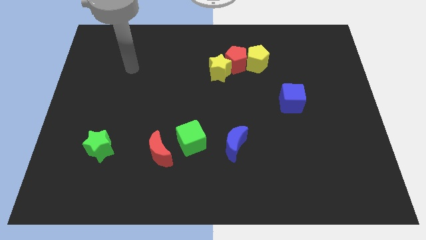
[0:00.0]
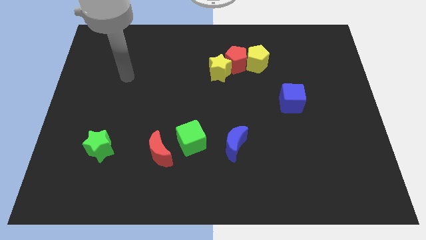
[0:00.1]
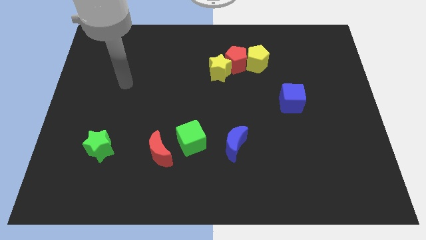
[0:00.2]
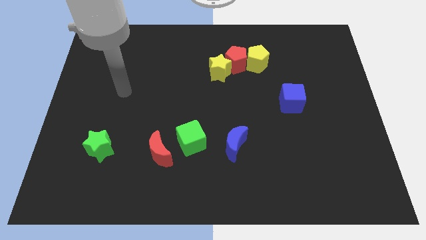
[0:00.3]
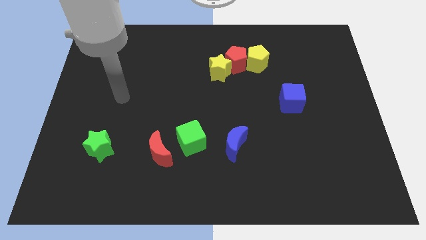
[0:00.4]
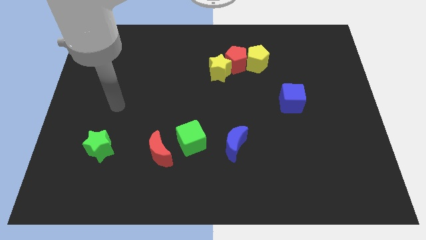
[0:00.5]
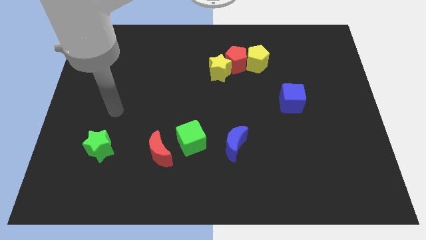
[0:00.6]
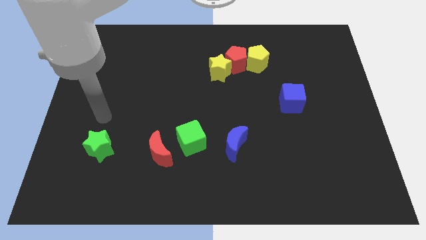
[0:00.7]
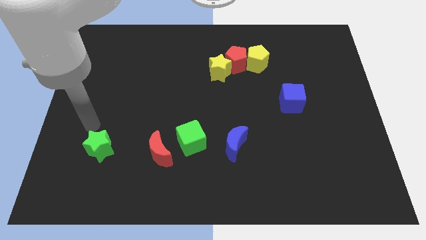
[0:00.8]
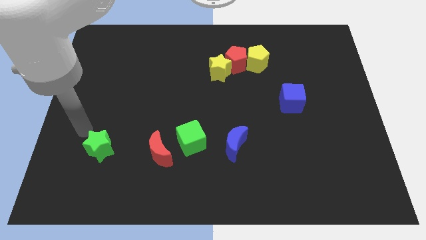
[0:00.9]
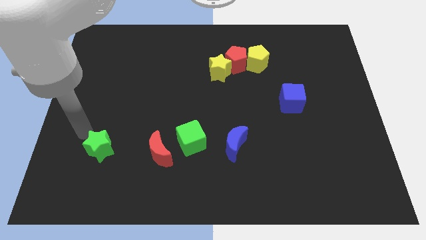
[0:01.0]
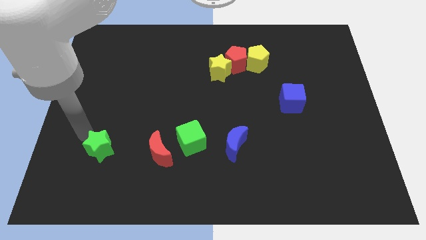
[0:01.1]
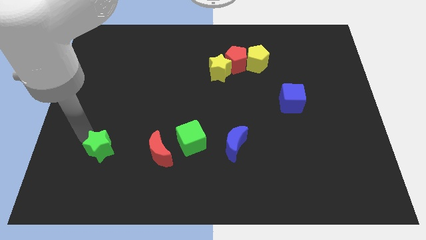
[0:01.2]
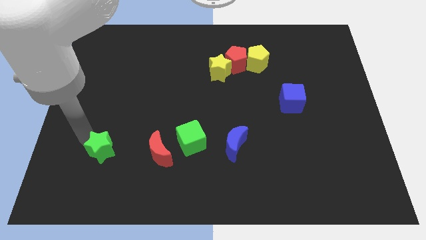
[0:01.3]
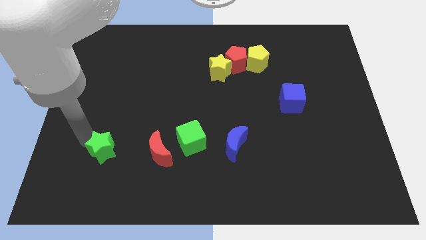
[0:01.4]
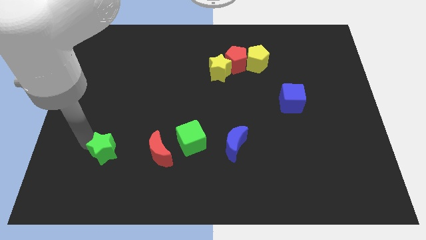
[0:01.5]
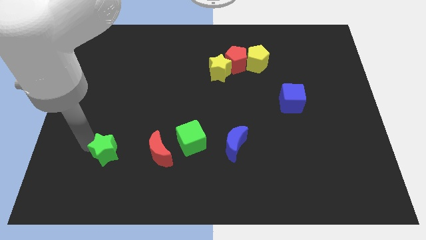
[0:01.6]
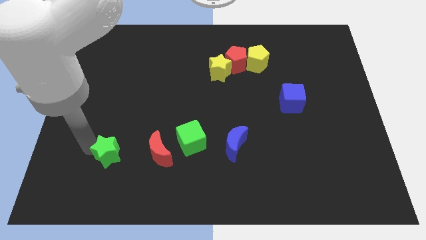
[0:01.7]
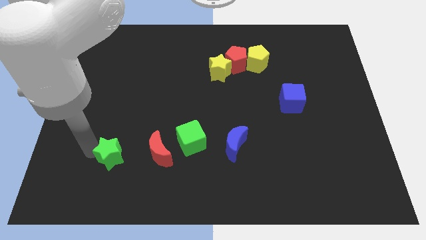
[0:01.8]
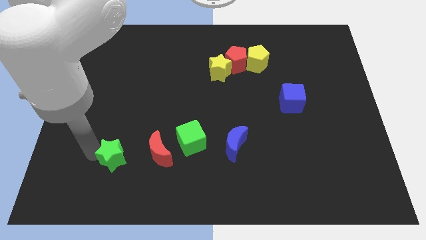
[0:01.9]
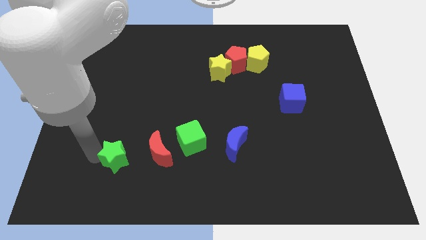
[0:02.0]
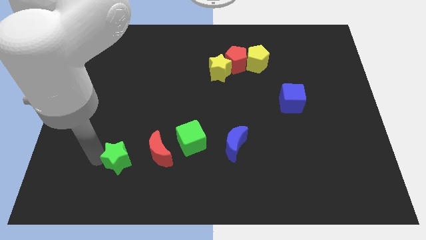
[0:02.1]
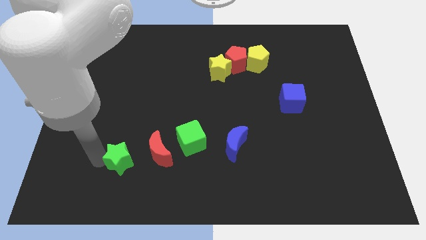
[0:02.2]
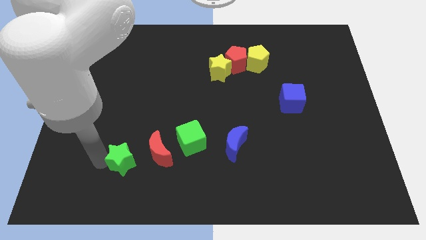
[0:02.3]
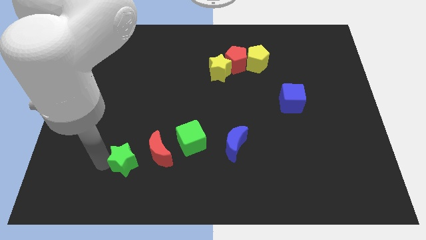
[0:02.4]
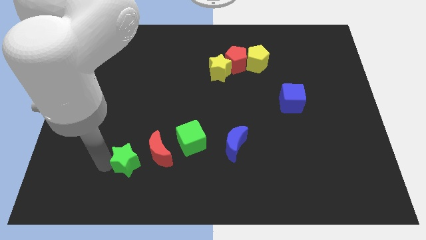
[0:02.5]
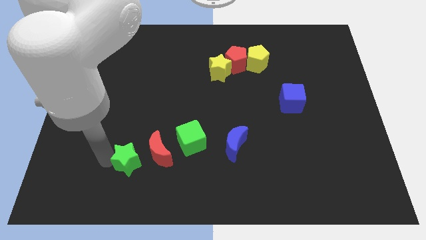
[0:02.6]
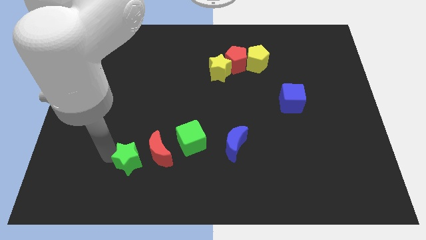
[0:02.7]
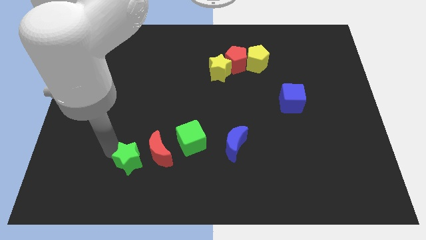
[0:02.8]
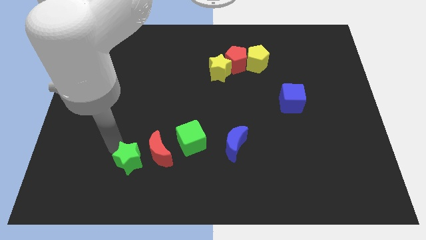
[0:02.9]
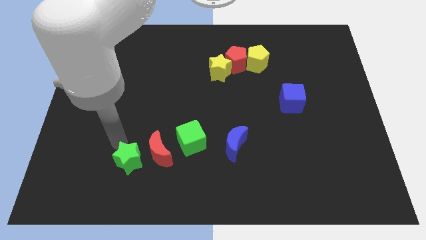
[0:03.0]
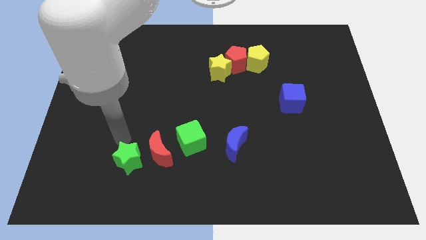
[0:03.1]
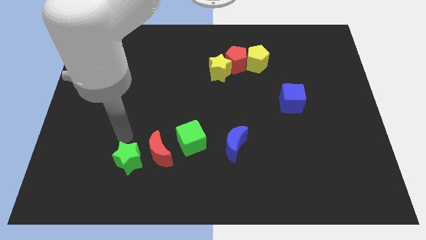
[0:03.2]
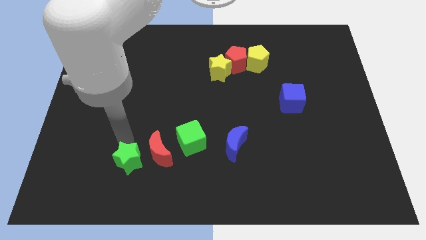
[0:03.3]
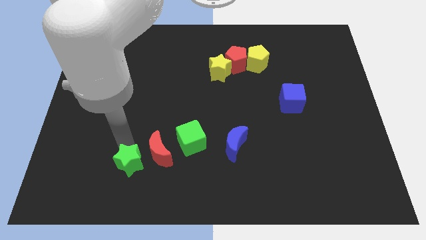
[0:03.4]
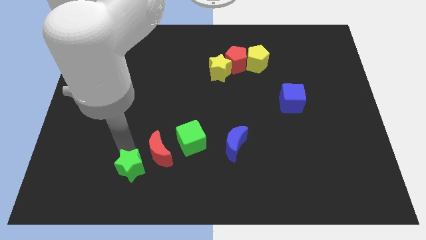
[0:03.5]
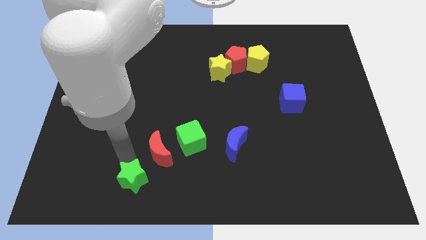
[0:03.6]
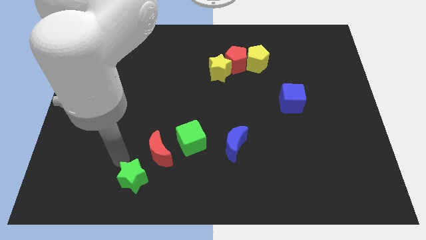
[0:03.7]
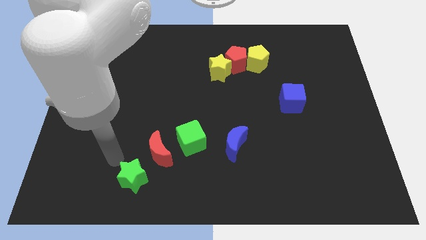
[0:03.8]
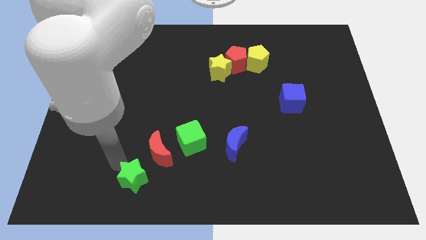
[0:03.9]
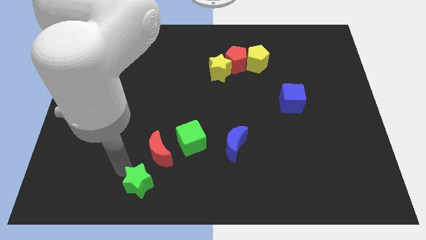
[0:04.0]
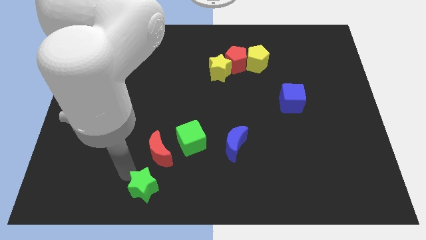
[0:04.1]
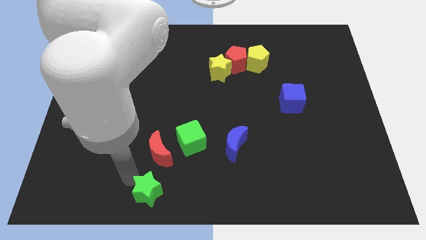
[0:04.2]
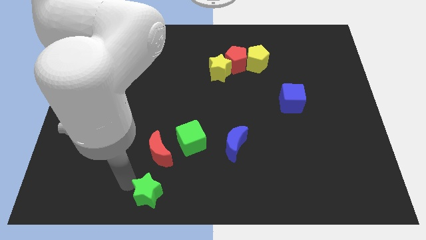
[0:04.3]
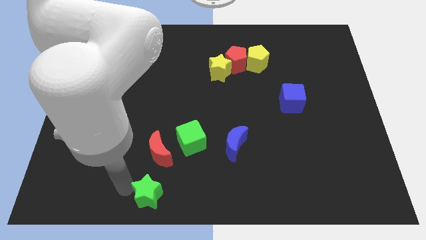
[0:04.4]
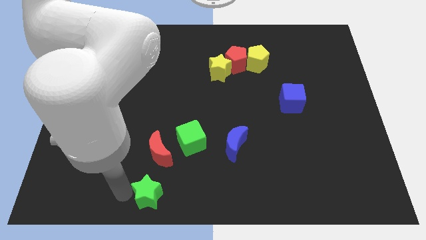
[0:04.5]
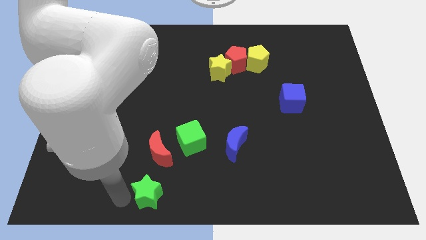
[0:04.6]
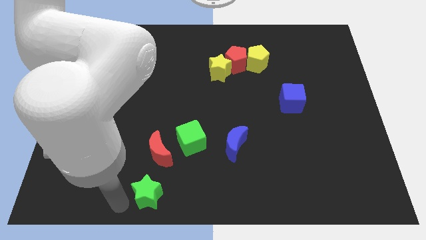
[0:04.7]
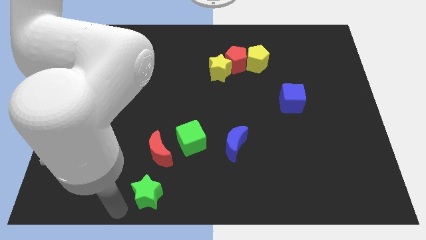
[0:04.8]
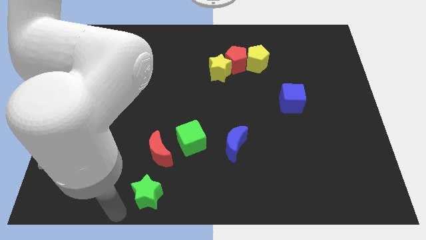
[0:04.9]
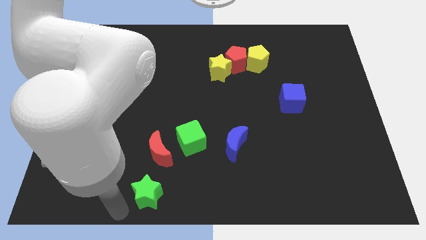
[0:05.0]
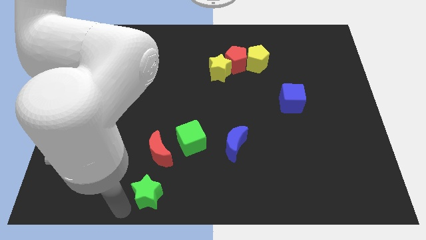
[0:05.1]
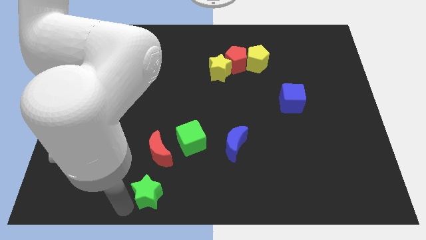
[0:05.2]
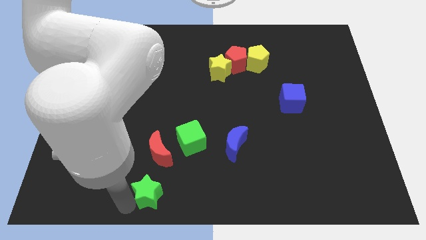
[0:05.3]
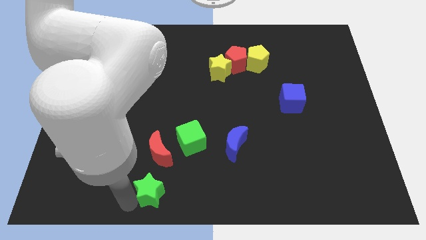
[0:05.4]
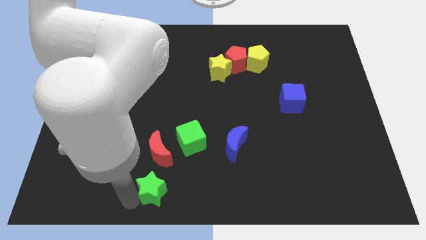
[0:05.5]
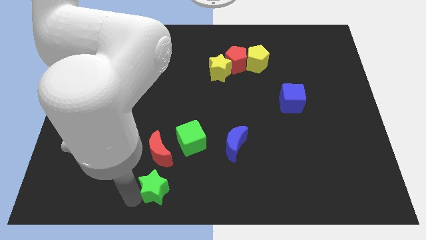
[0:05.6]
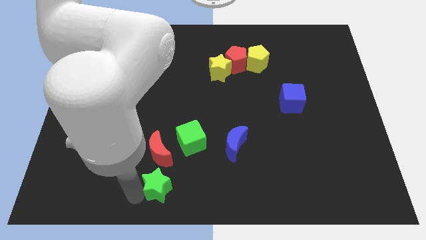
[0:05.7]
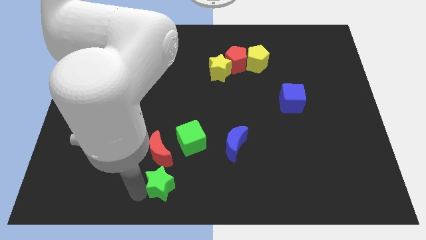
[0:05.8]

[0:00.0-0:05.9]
move the green star to the bottom right of the red moon
